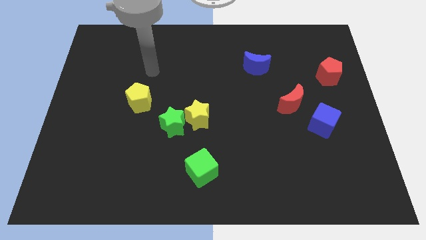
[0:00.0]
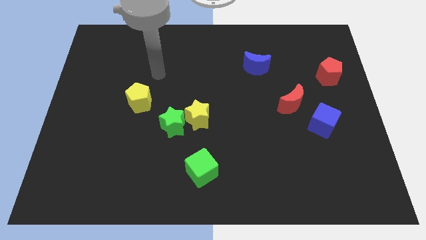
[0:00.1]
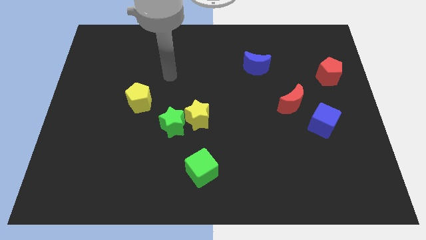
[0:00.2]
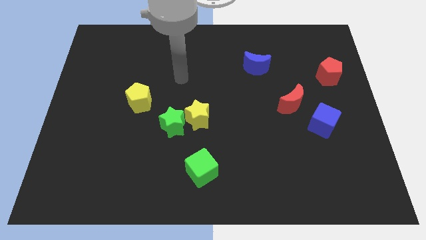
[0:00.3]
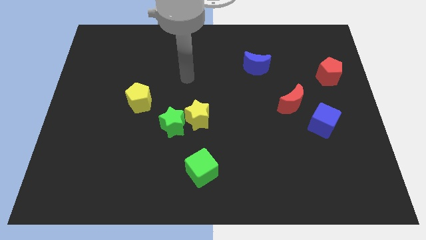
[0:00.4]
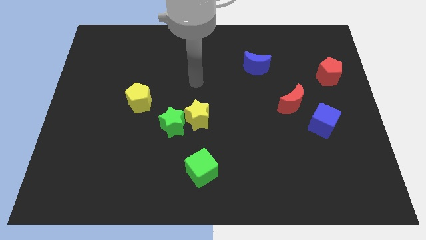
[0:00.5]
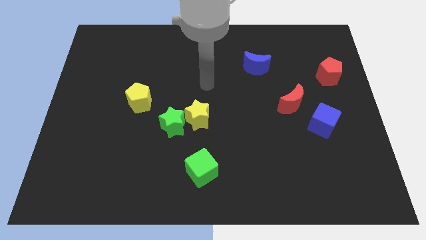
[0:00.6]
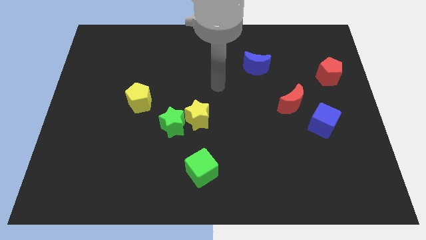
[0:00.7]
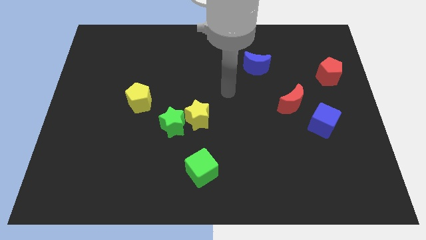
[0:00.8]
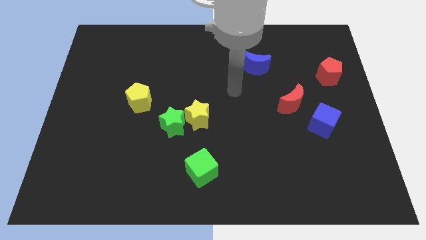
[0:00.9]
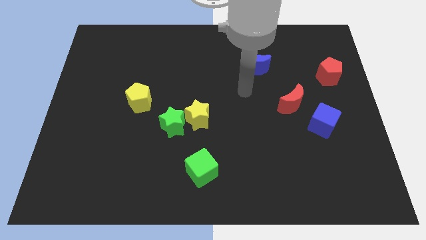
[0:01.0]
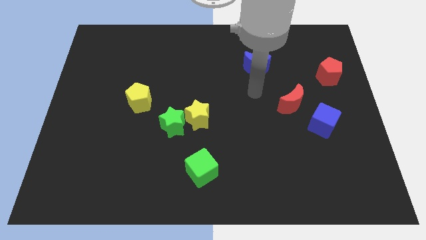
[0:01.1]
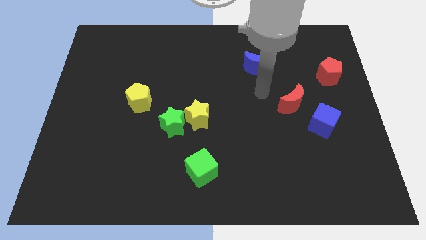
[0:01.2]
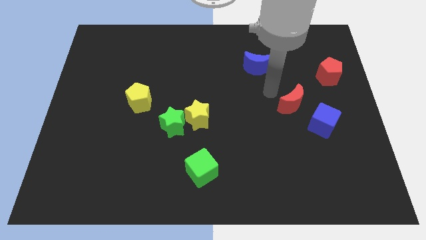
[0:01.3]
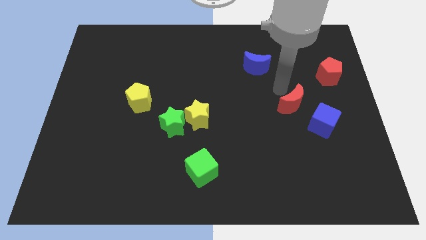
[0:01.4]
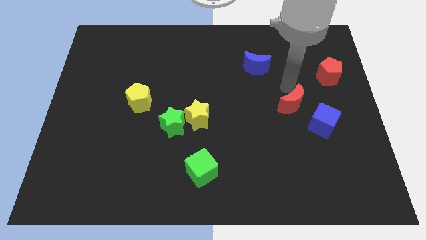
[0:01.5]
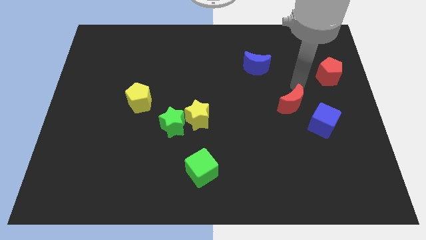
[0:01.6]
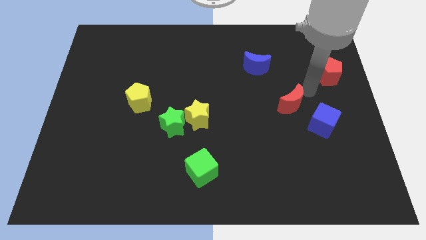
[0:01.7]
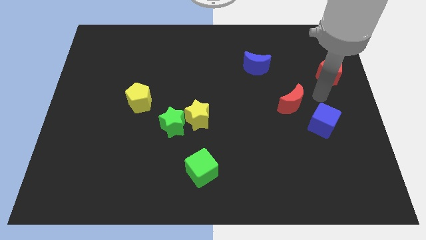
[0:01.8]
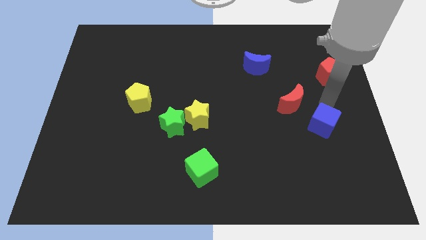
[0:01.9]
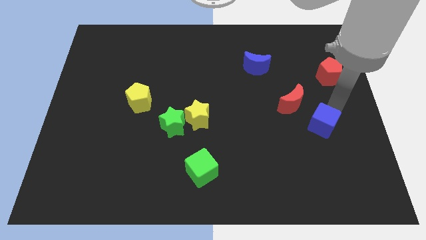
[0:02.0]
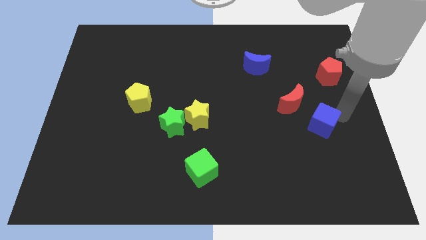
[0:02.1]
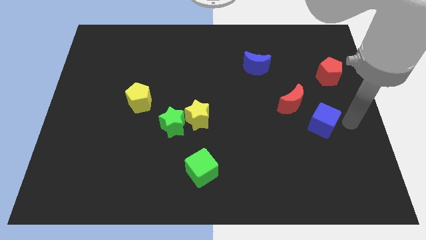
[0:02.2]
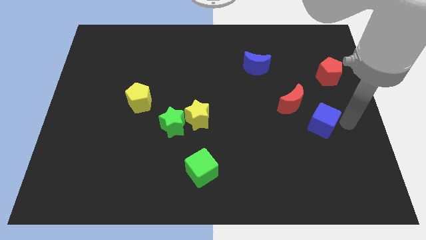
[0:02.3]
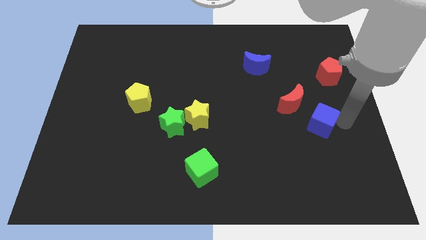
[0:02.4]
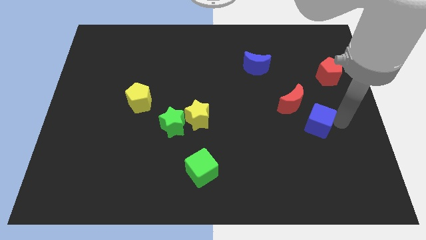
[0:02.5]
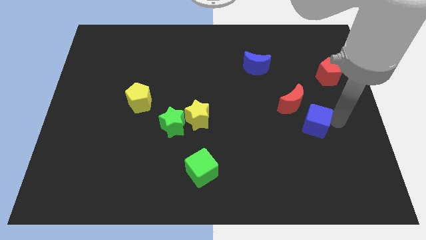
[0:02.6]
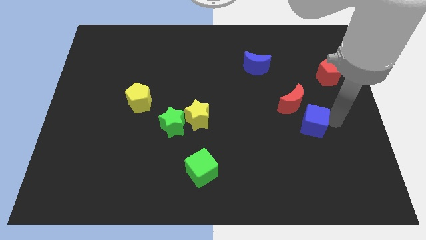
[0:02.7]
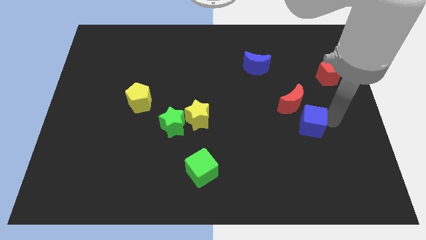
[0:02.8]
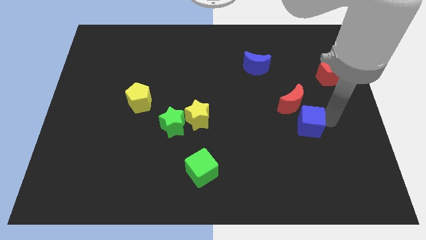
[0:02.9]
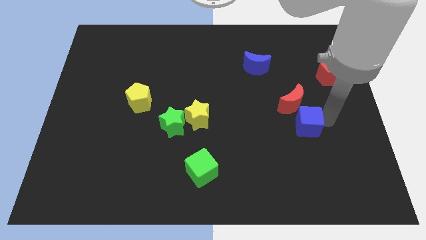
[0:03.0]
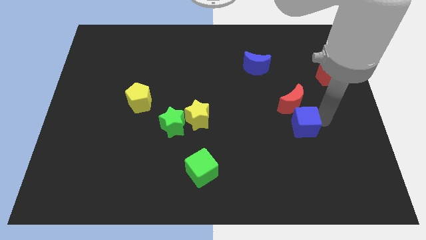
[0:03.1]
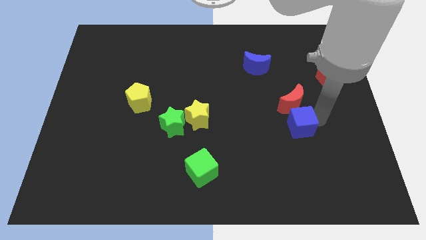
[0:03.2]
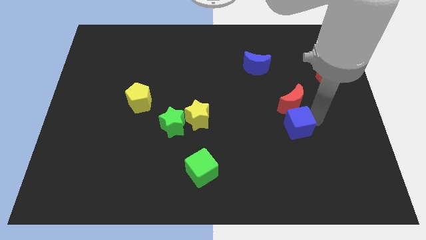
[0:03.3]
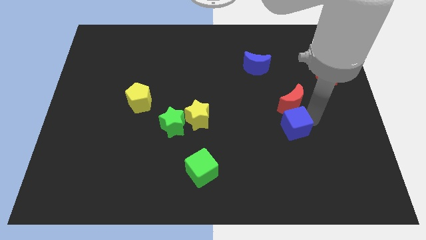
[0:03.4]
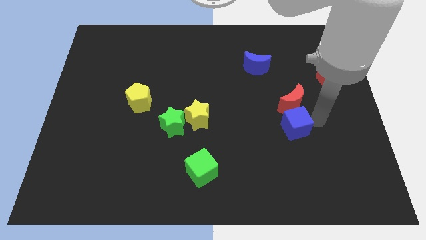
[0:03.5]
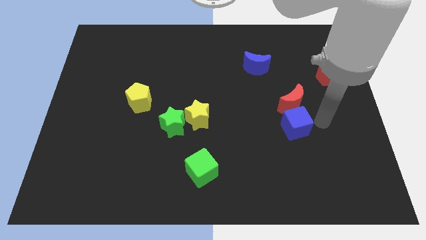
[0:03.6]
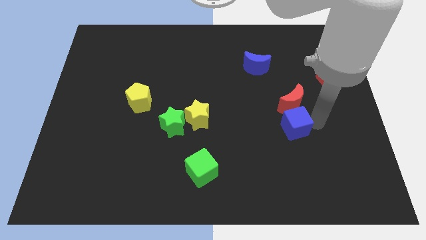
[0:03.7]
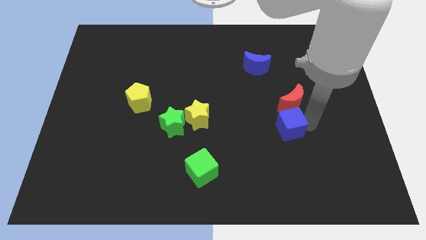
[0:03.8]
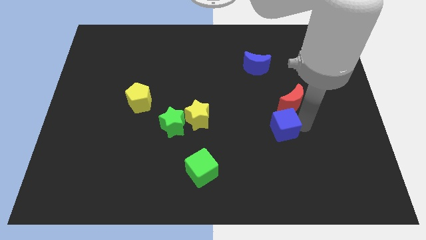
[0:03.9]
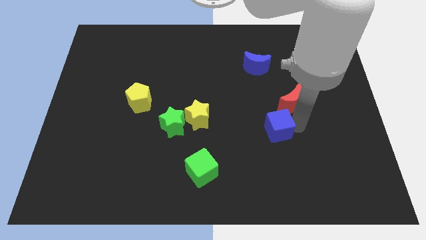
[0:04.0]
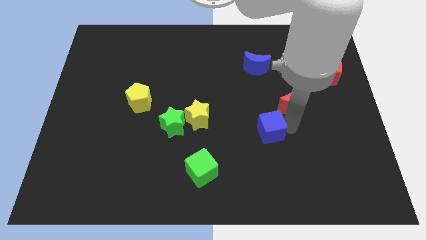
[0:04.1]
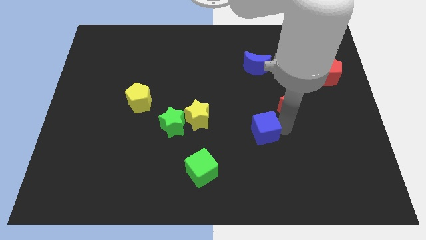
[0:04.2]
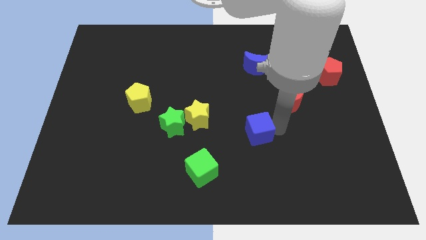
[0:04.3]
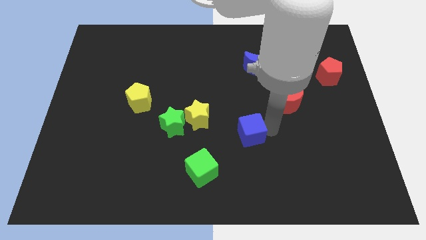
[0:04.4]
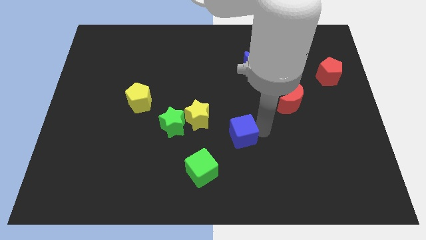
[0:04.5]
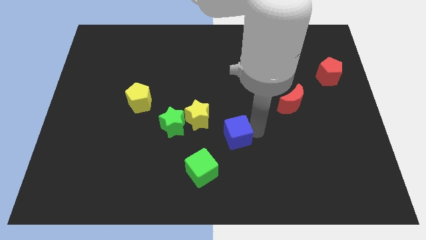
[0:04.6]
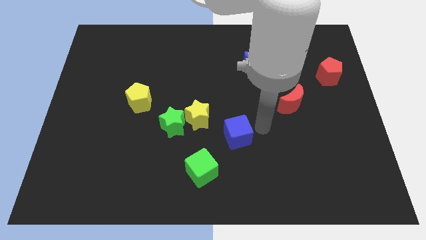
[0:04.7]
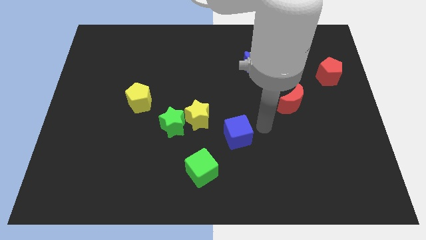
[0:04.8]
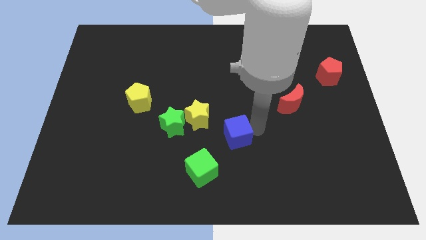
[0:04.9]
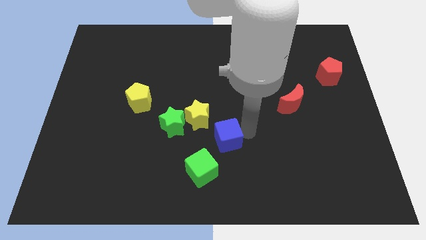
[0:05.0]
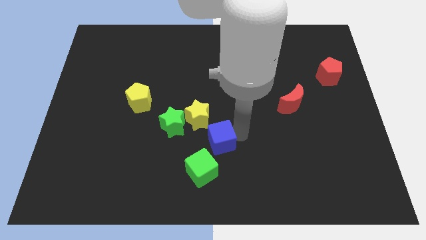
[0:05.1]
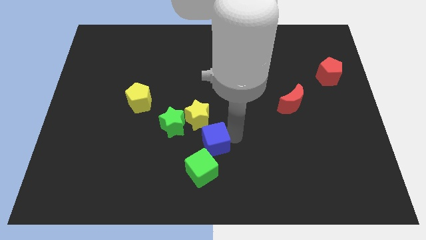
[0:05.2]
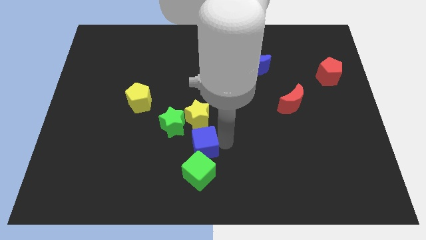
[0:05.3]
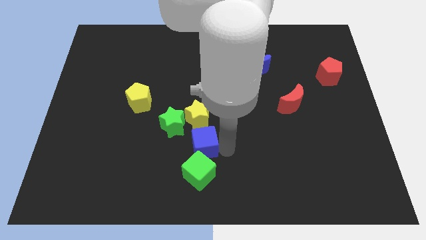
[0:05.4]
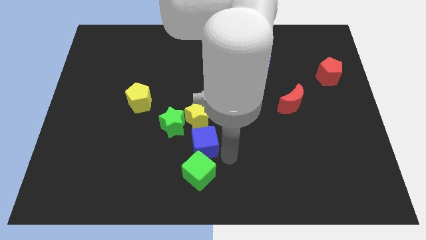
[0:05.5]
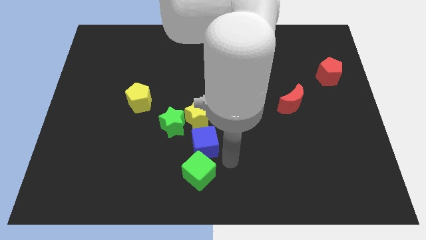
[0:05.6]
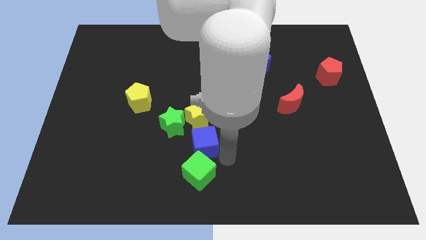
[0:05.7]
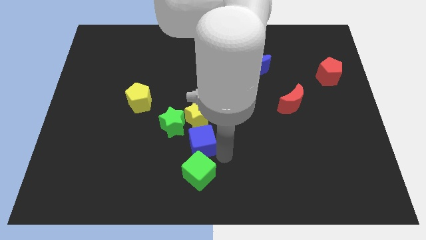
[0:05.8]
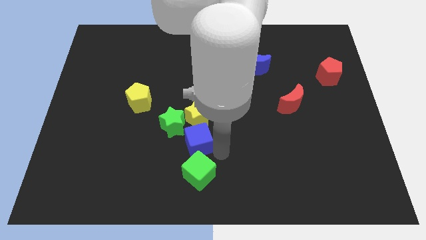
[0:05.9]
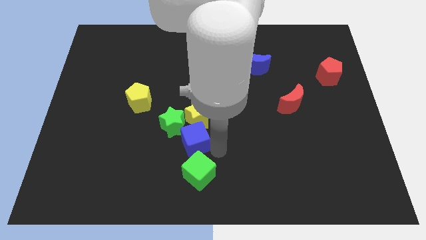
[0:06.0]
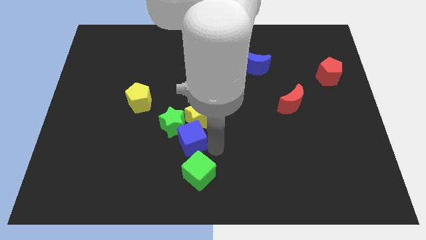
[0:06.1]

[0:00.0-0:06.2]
slide the blue cube close to the green star

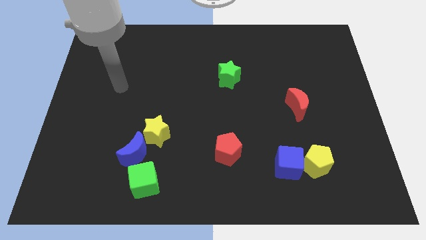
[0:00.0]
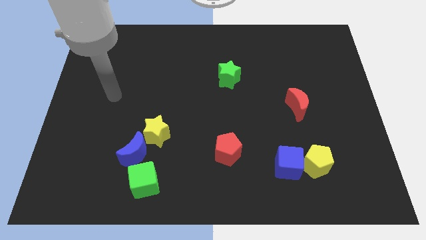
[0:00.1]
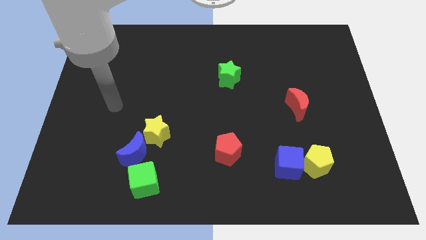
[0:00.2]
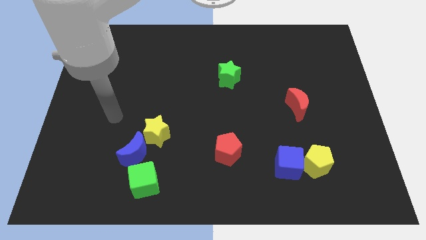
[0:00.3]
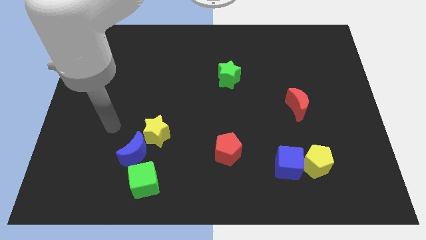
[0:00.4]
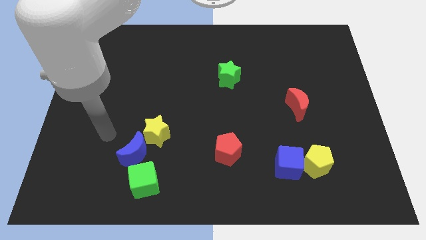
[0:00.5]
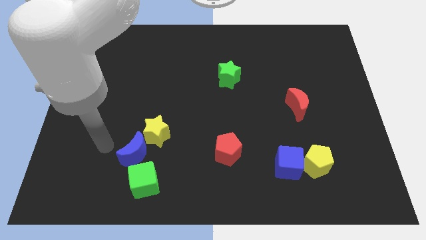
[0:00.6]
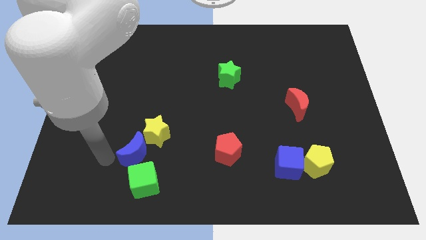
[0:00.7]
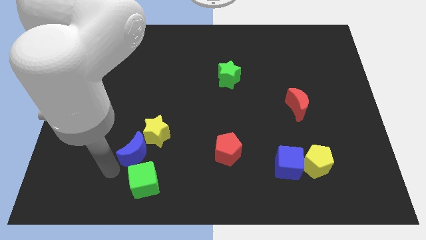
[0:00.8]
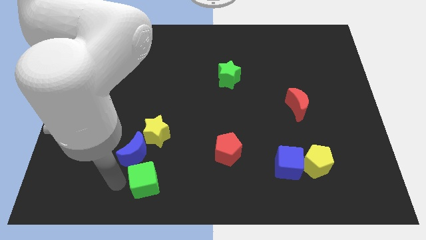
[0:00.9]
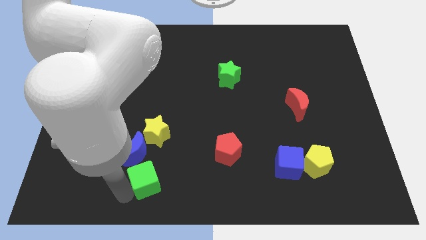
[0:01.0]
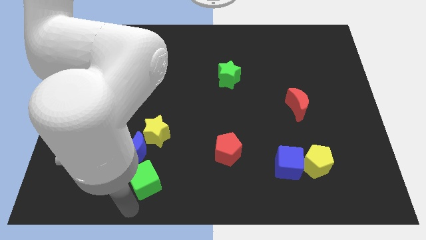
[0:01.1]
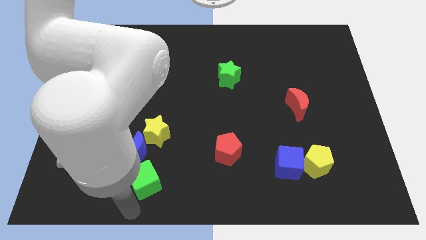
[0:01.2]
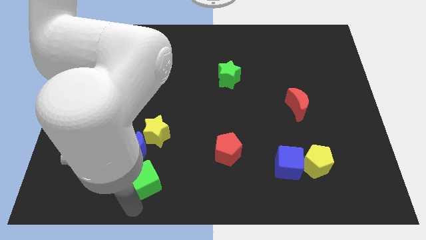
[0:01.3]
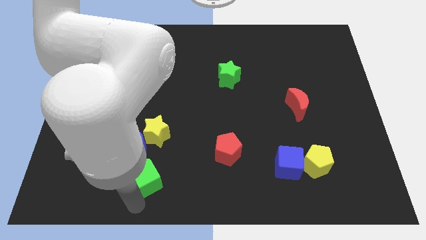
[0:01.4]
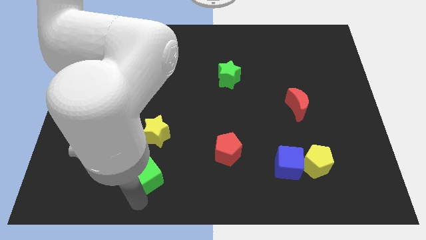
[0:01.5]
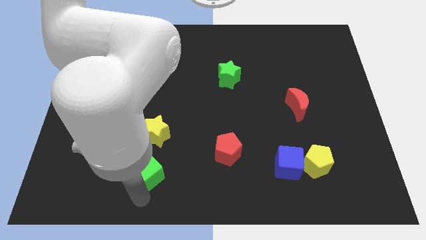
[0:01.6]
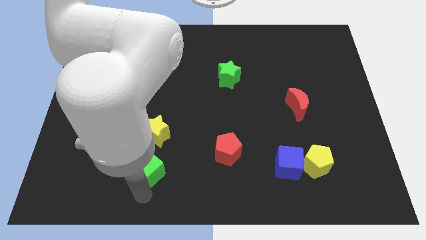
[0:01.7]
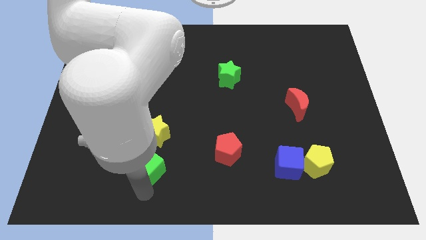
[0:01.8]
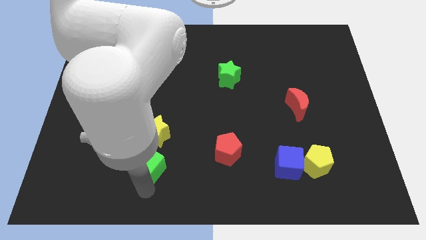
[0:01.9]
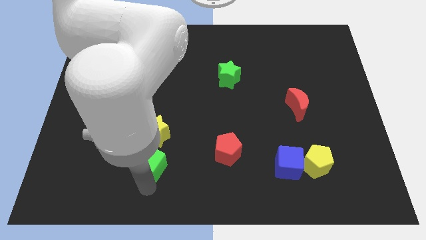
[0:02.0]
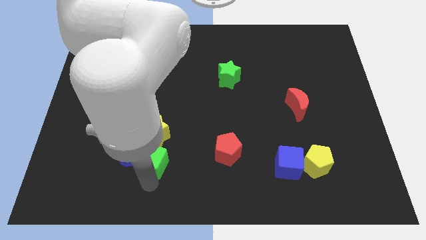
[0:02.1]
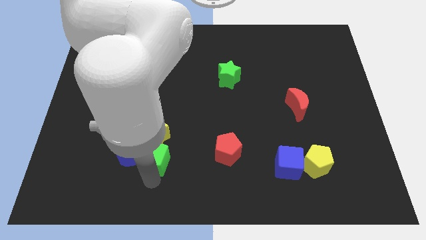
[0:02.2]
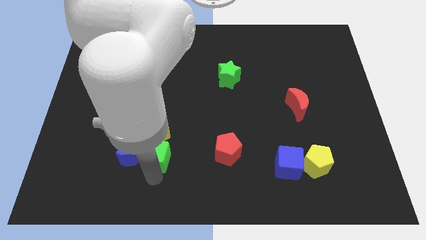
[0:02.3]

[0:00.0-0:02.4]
push the green cube towards the yellow star
